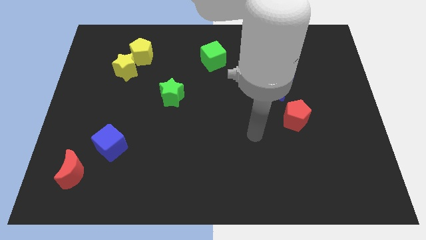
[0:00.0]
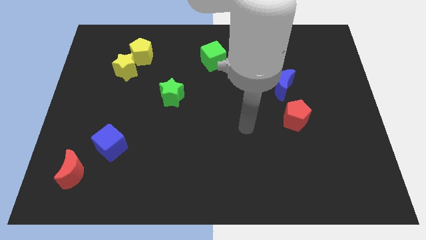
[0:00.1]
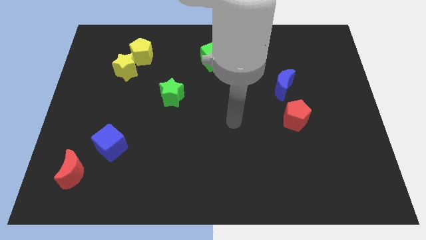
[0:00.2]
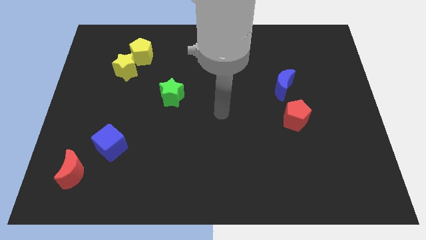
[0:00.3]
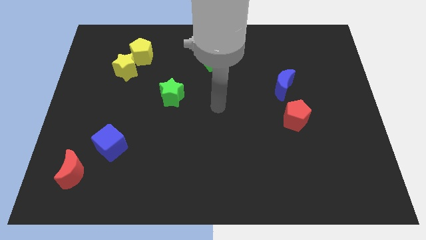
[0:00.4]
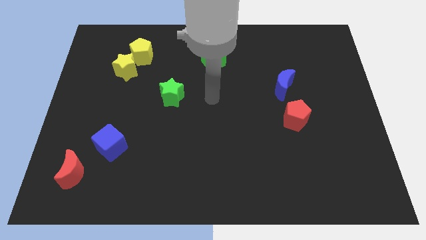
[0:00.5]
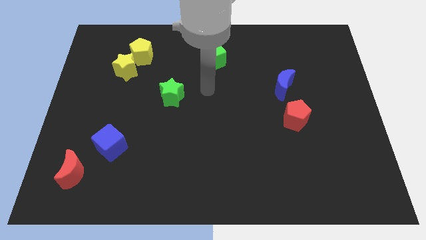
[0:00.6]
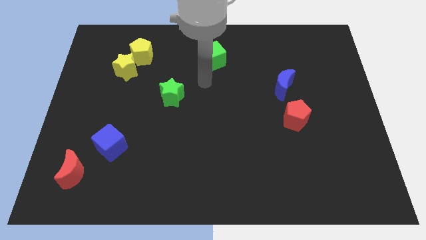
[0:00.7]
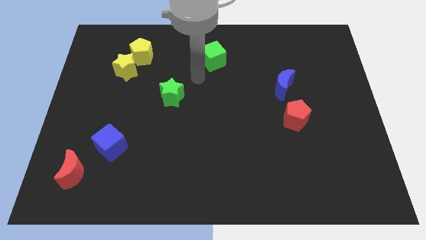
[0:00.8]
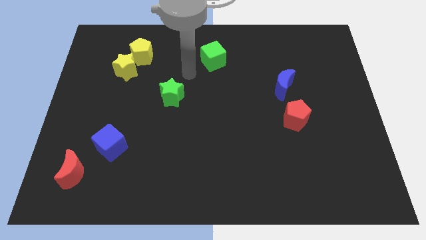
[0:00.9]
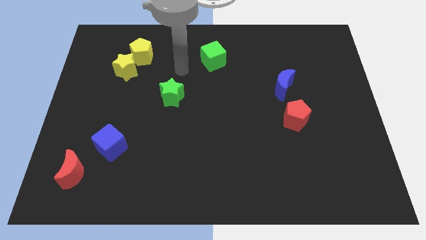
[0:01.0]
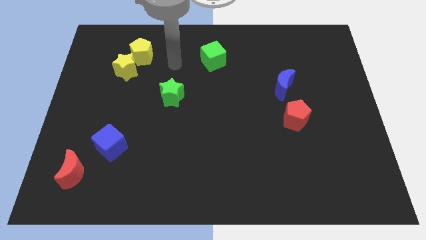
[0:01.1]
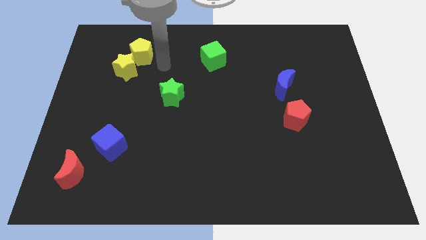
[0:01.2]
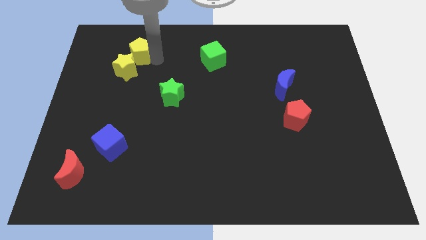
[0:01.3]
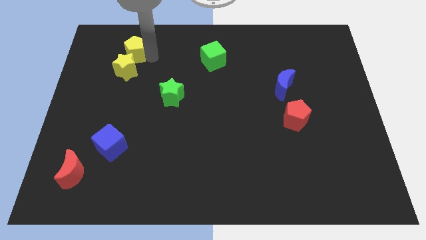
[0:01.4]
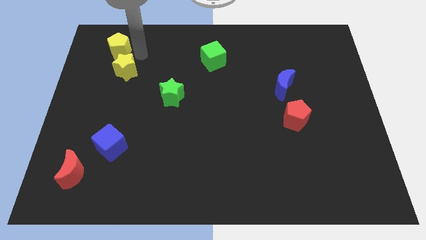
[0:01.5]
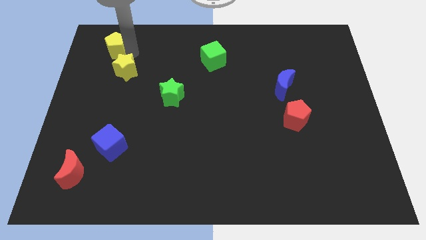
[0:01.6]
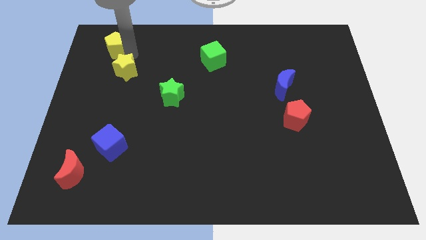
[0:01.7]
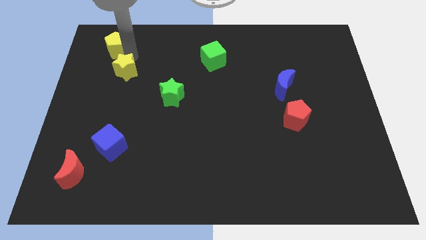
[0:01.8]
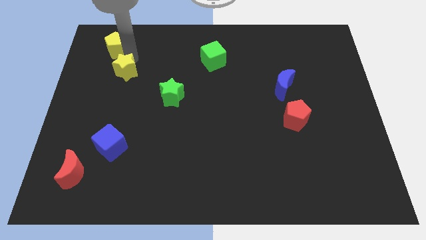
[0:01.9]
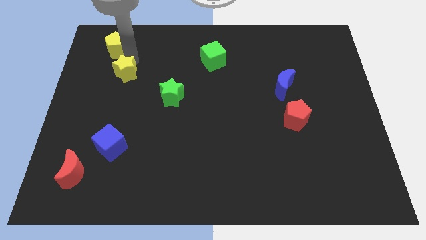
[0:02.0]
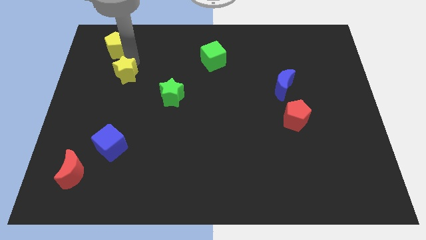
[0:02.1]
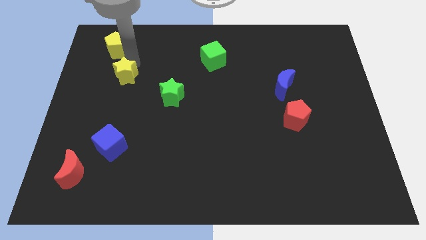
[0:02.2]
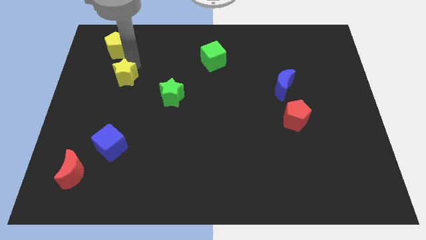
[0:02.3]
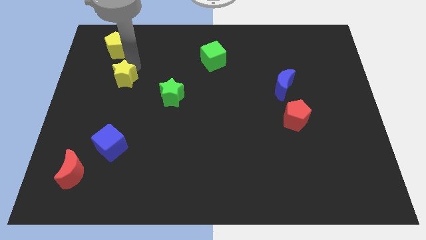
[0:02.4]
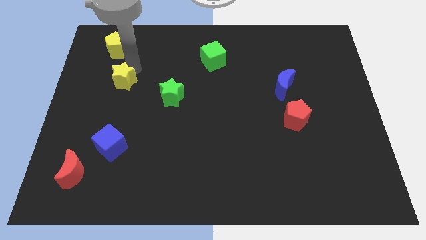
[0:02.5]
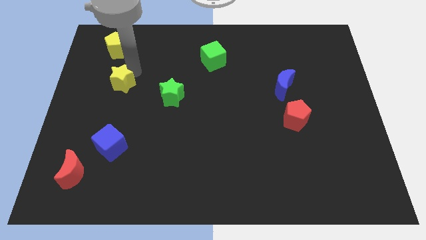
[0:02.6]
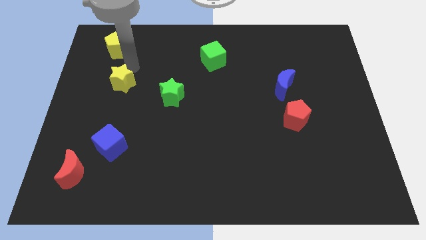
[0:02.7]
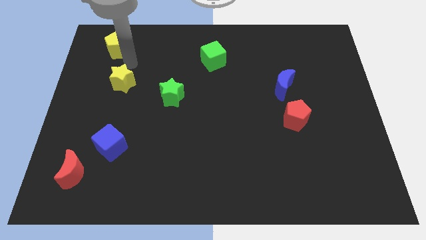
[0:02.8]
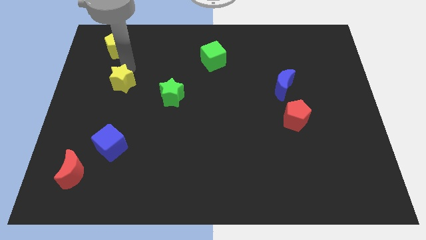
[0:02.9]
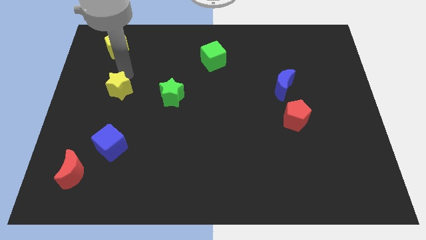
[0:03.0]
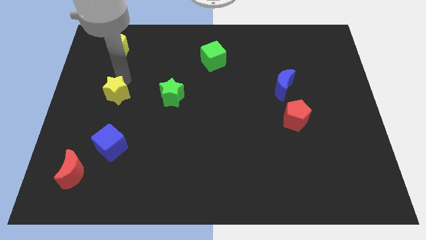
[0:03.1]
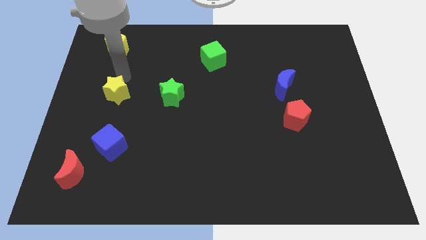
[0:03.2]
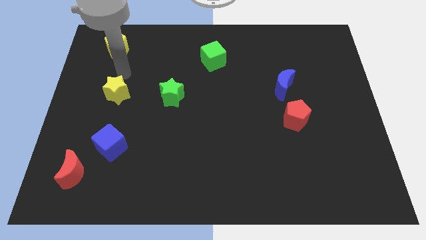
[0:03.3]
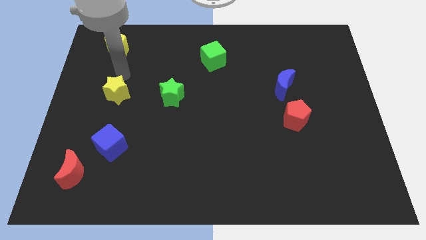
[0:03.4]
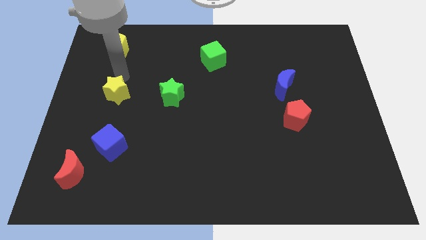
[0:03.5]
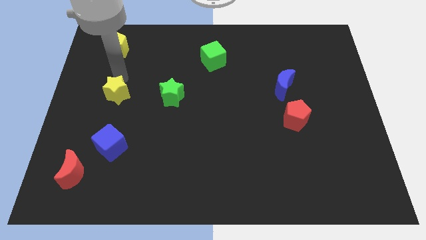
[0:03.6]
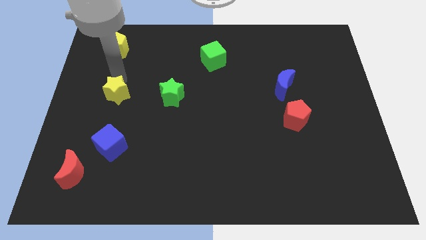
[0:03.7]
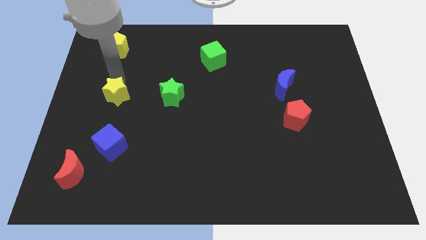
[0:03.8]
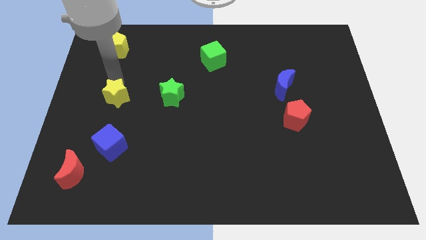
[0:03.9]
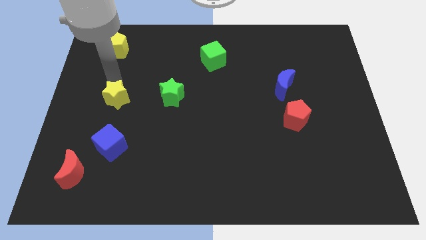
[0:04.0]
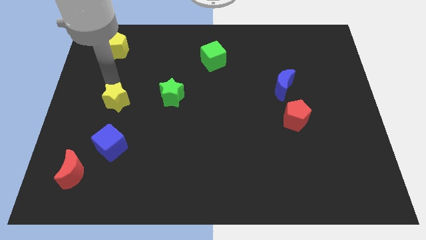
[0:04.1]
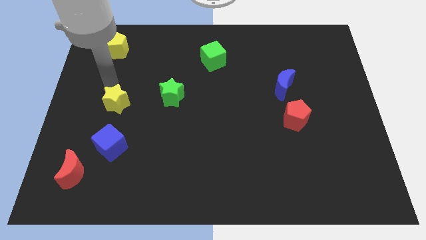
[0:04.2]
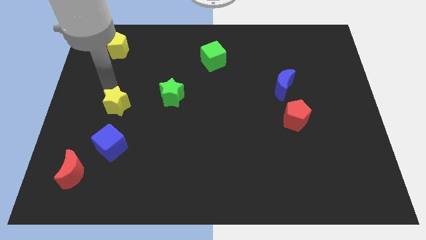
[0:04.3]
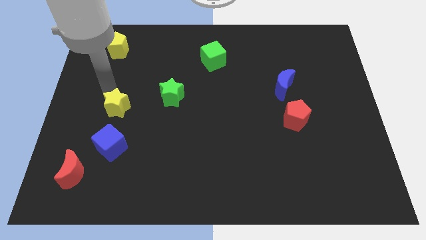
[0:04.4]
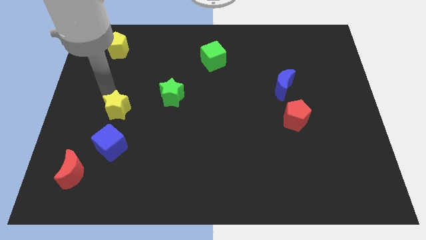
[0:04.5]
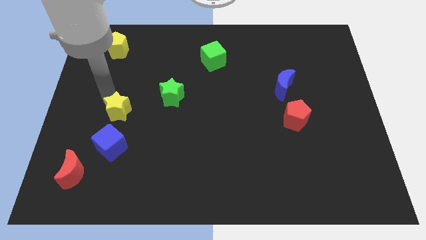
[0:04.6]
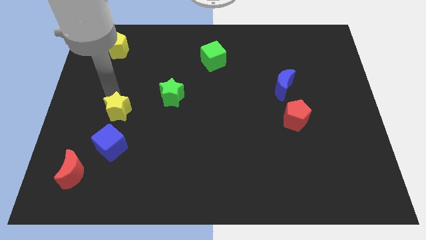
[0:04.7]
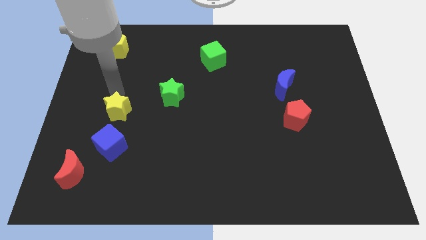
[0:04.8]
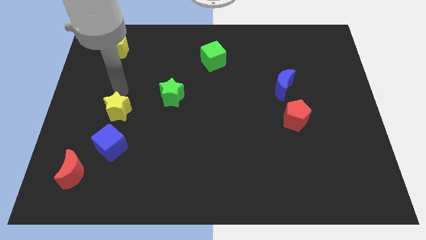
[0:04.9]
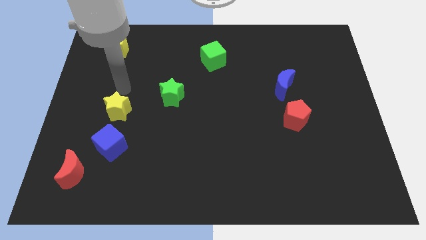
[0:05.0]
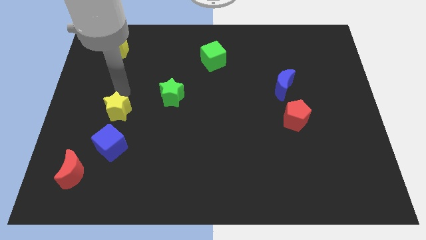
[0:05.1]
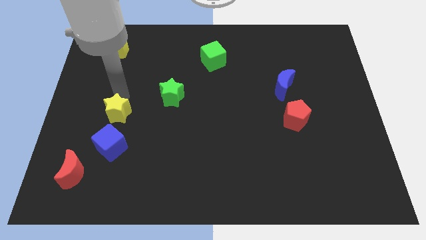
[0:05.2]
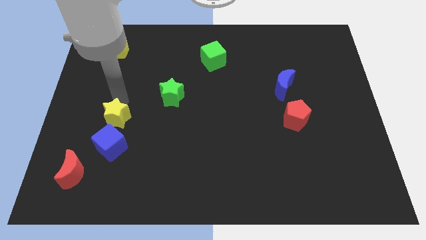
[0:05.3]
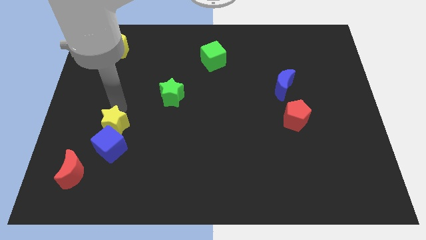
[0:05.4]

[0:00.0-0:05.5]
slide the yellow star close to the blue cube

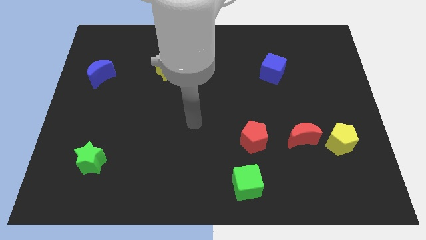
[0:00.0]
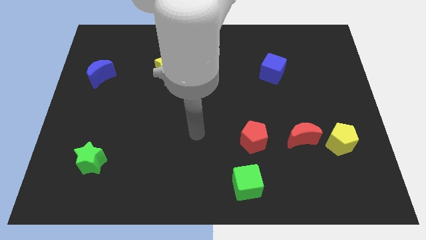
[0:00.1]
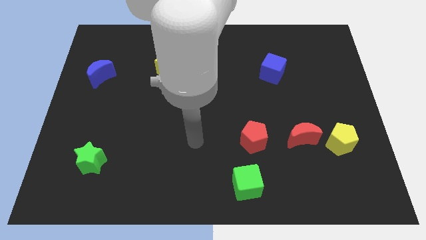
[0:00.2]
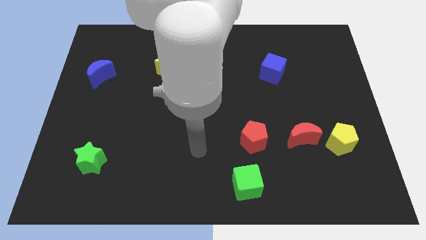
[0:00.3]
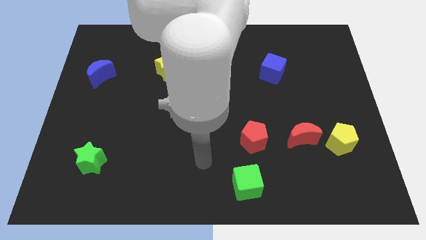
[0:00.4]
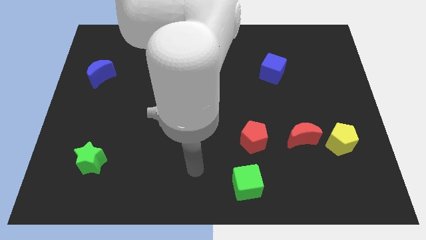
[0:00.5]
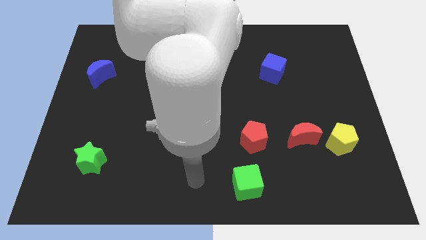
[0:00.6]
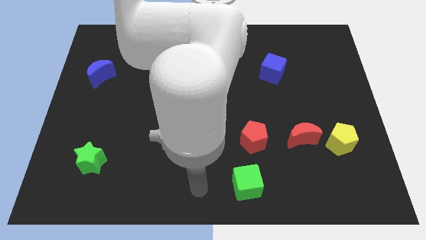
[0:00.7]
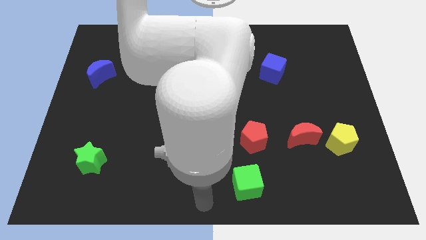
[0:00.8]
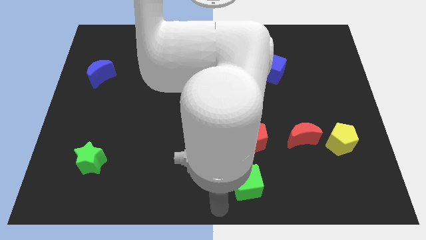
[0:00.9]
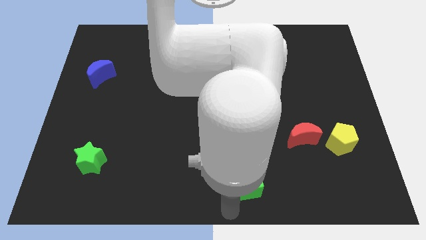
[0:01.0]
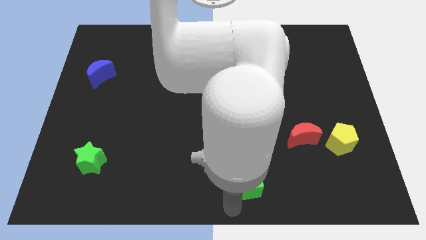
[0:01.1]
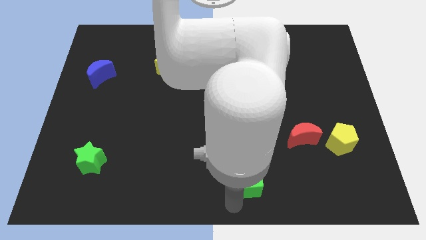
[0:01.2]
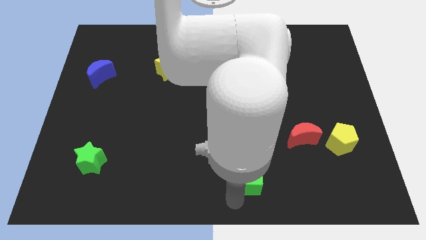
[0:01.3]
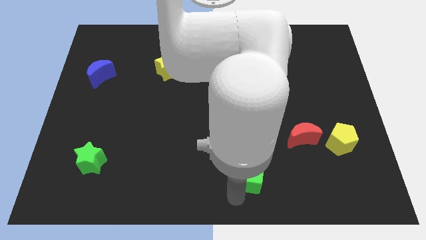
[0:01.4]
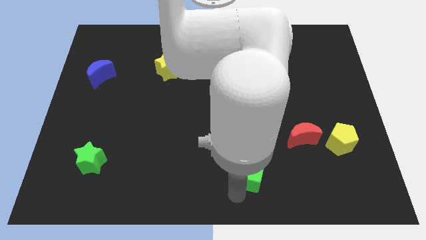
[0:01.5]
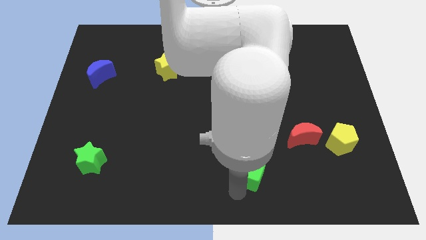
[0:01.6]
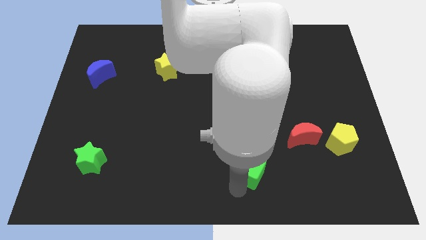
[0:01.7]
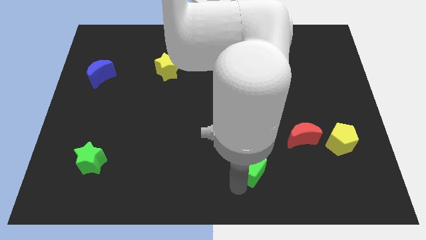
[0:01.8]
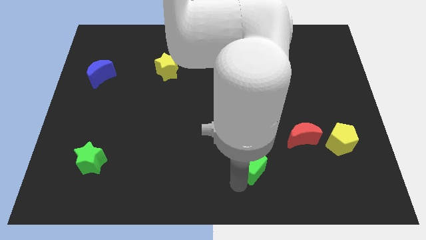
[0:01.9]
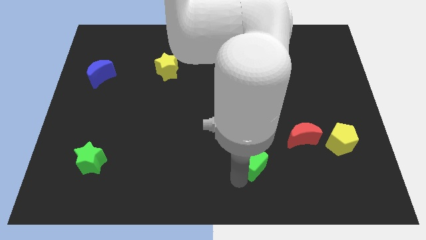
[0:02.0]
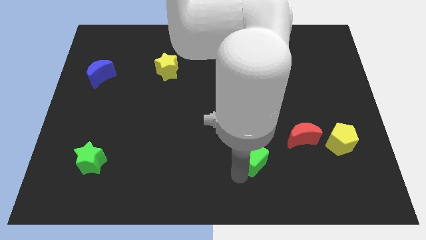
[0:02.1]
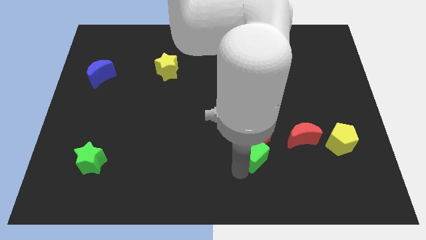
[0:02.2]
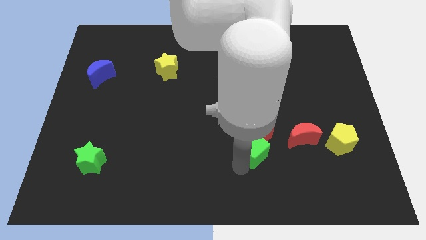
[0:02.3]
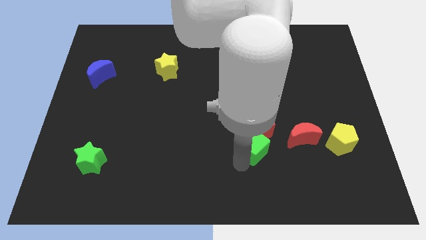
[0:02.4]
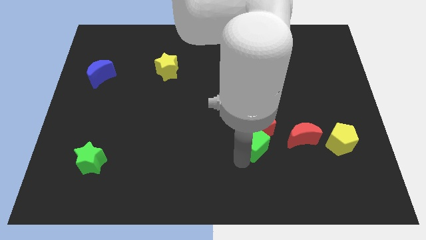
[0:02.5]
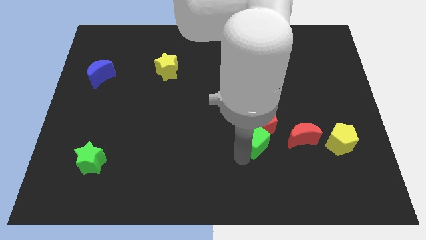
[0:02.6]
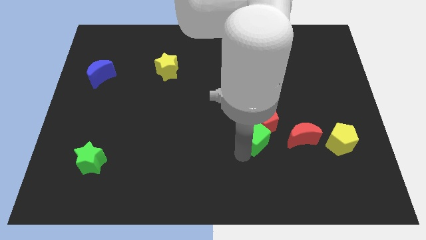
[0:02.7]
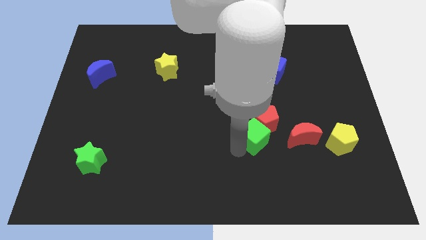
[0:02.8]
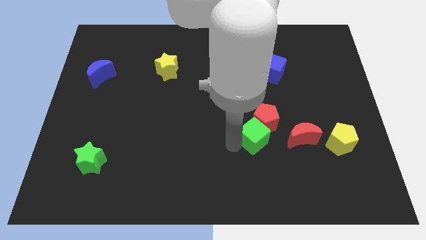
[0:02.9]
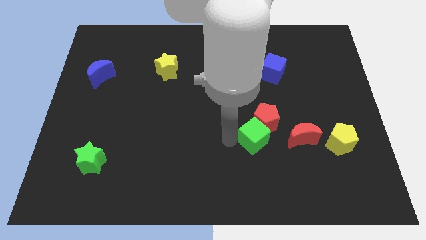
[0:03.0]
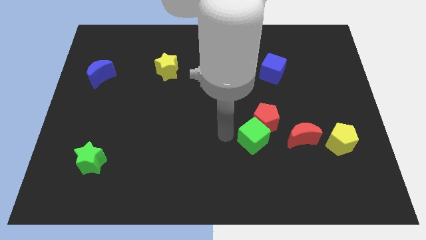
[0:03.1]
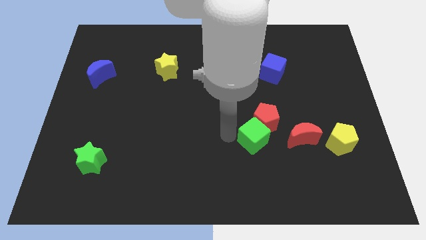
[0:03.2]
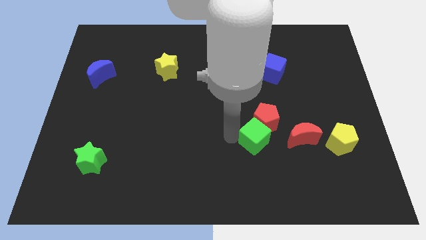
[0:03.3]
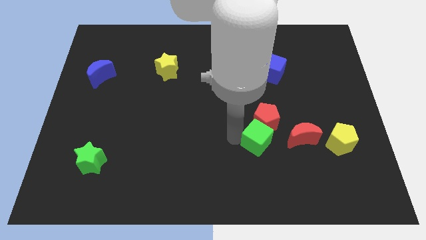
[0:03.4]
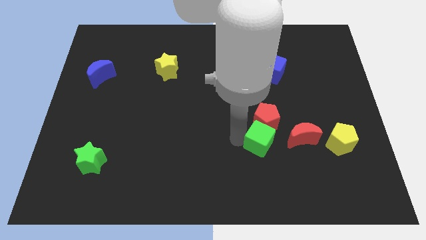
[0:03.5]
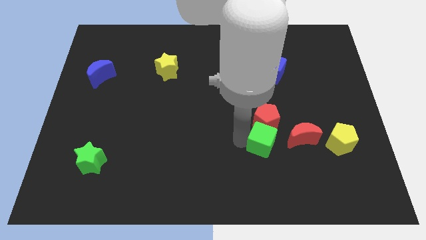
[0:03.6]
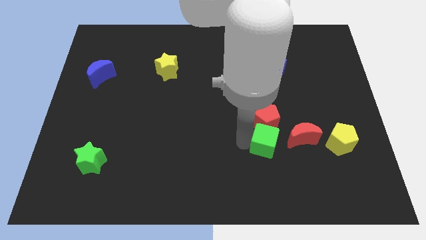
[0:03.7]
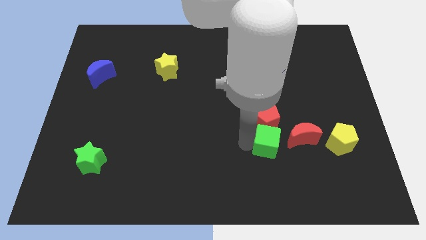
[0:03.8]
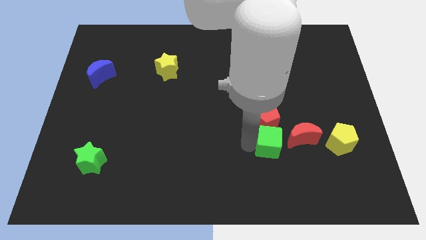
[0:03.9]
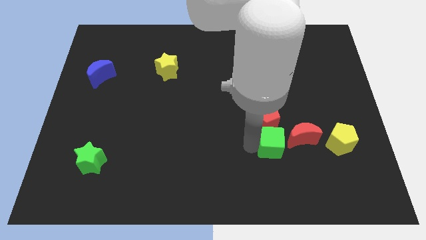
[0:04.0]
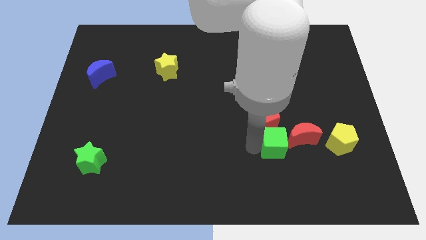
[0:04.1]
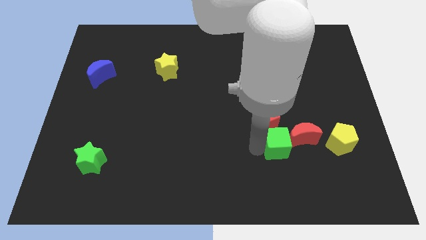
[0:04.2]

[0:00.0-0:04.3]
push the green cube towards the red moon
